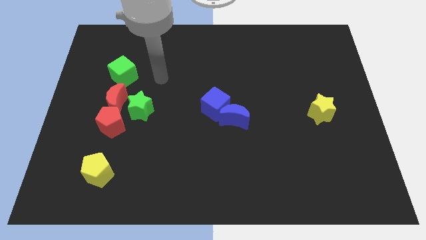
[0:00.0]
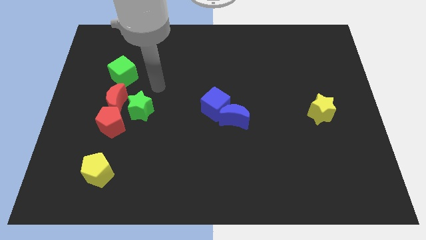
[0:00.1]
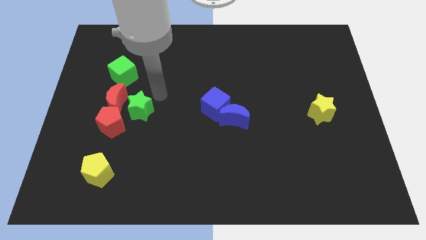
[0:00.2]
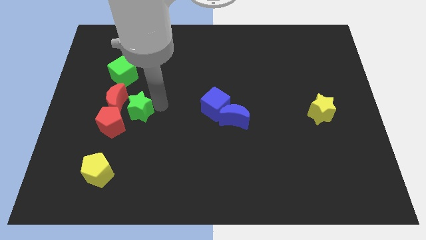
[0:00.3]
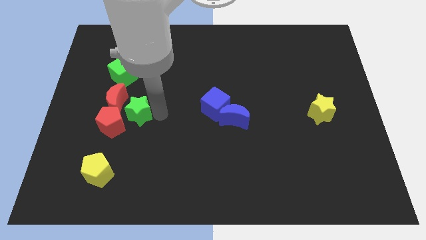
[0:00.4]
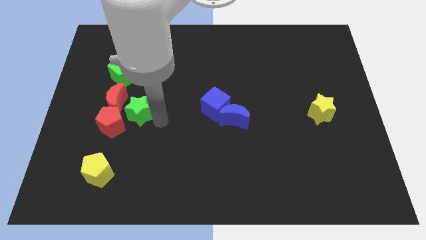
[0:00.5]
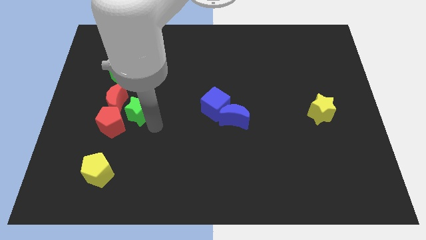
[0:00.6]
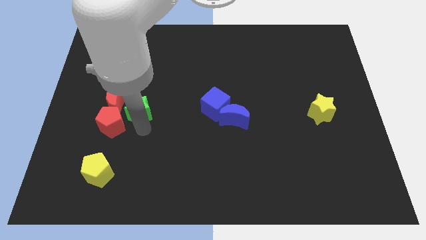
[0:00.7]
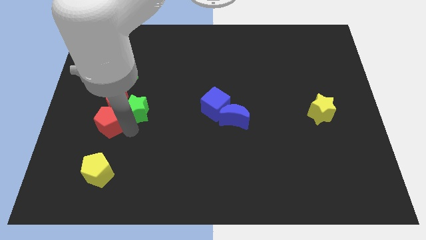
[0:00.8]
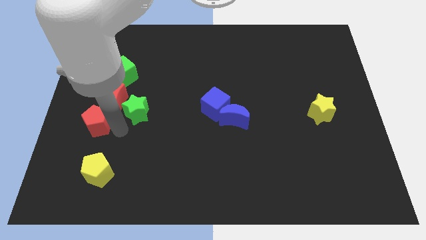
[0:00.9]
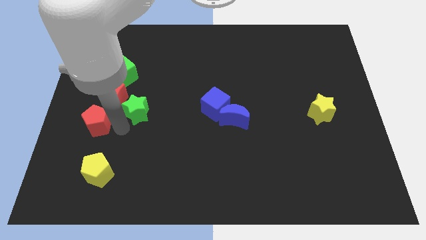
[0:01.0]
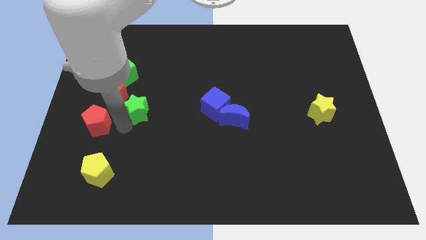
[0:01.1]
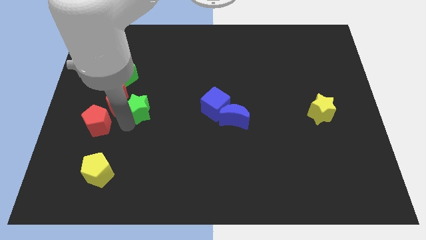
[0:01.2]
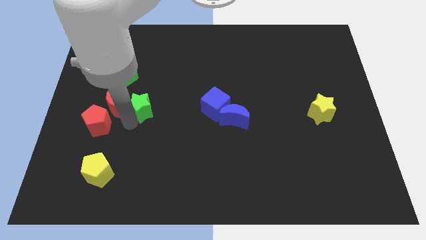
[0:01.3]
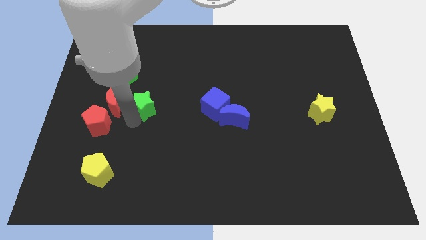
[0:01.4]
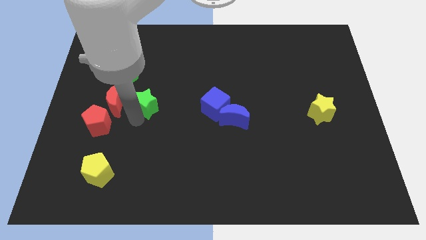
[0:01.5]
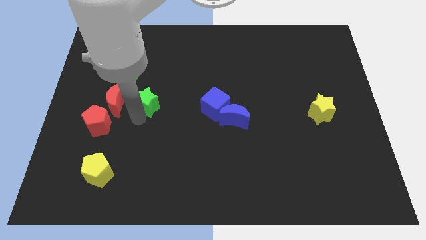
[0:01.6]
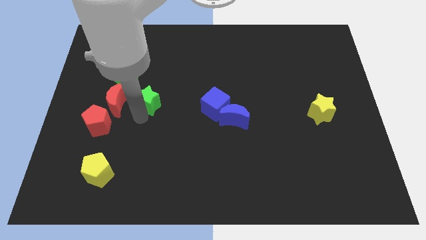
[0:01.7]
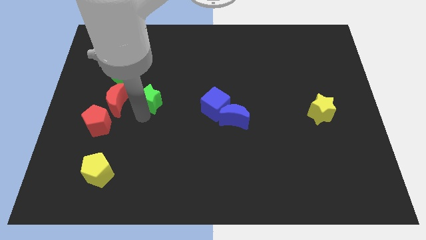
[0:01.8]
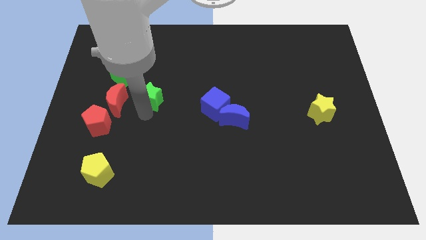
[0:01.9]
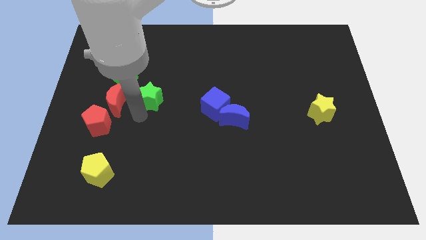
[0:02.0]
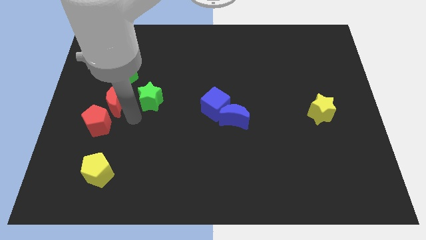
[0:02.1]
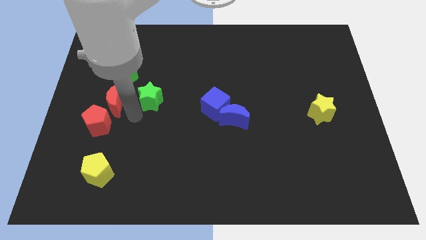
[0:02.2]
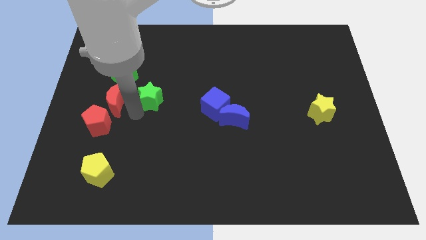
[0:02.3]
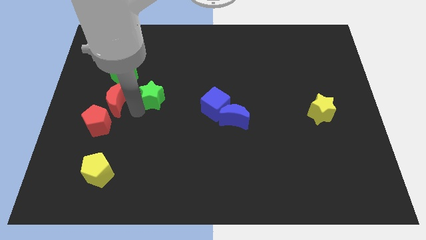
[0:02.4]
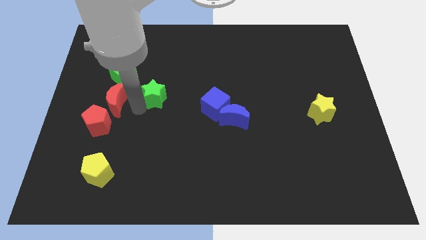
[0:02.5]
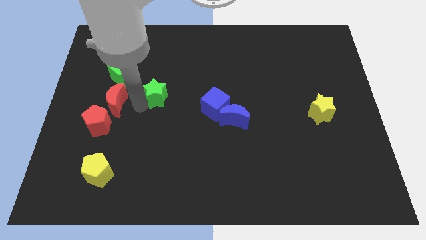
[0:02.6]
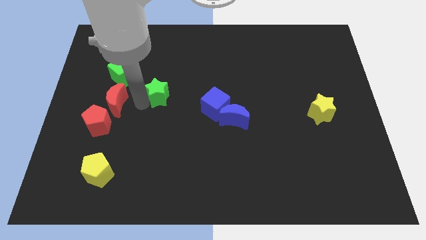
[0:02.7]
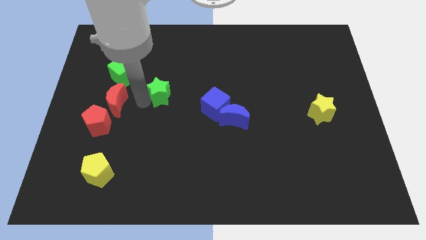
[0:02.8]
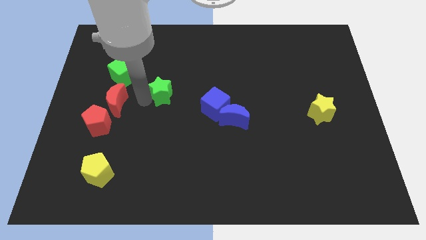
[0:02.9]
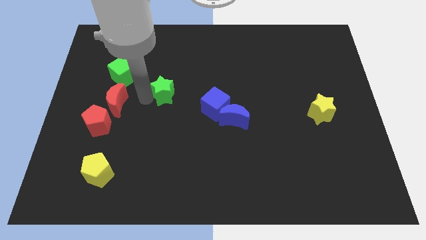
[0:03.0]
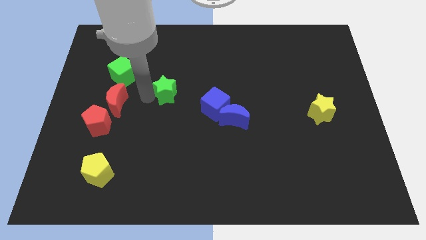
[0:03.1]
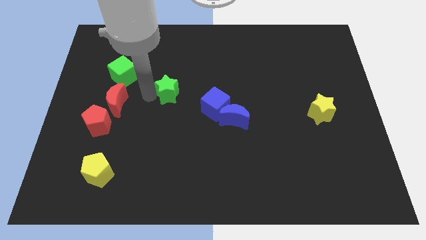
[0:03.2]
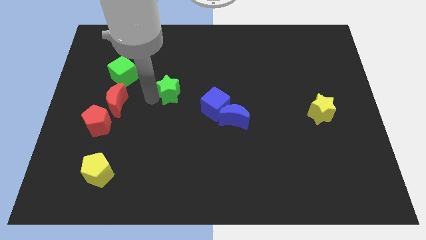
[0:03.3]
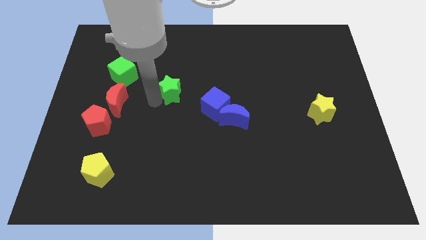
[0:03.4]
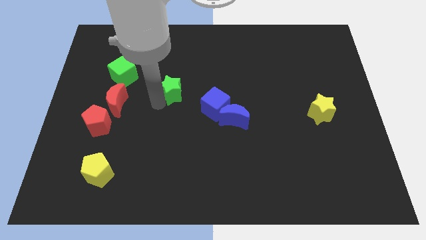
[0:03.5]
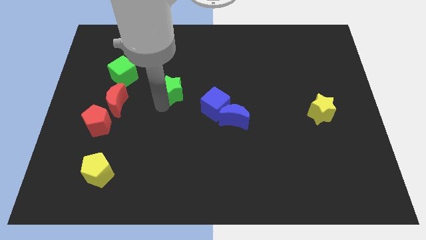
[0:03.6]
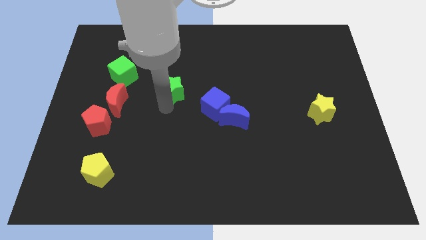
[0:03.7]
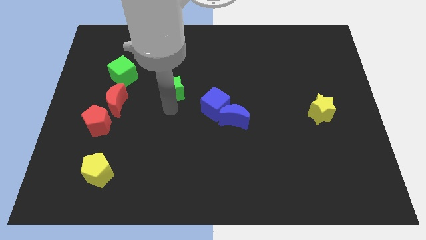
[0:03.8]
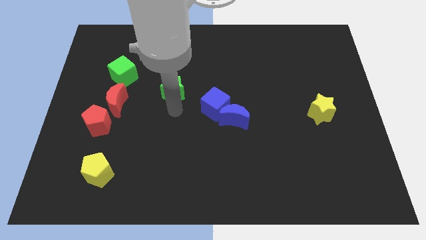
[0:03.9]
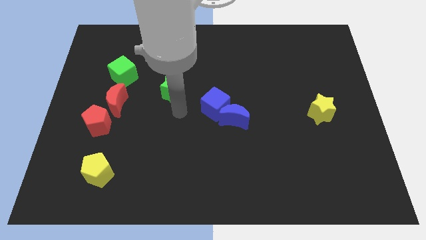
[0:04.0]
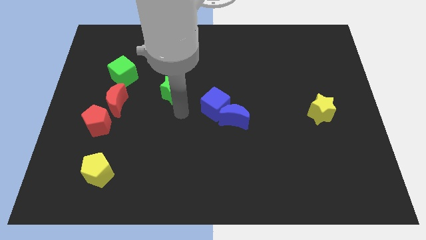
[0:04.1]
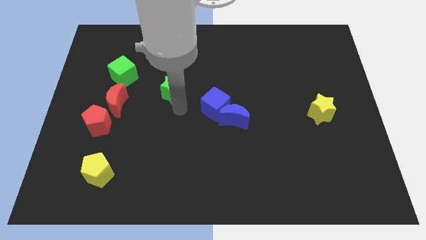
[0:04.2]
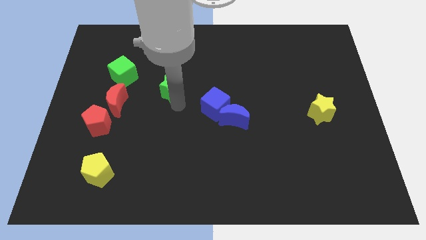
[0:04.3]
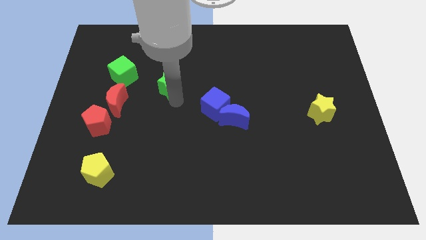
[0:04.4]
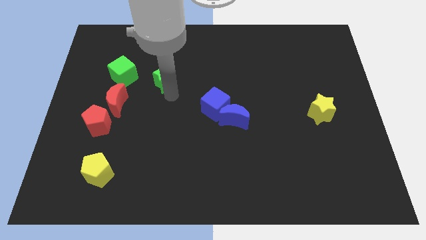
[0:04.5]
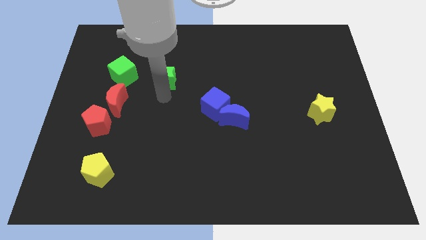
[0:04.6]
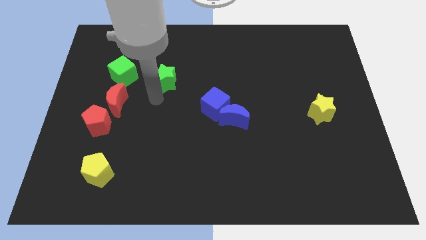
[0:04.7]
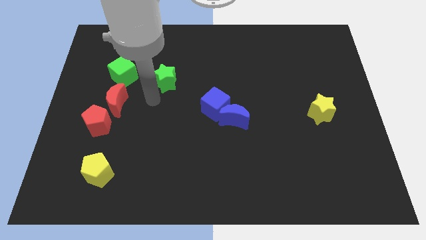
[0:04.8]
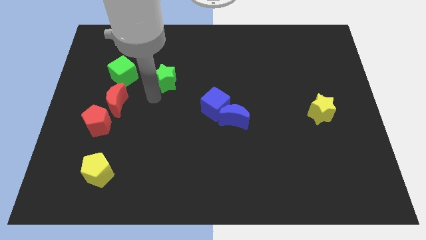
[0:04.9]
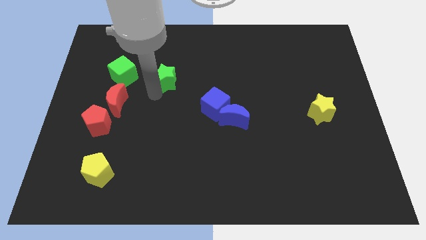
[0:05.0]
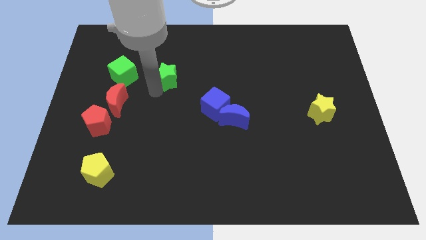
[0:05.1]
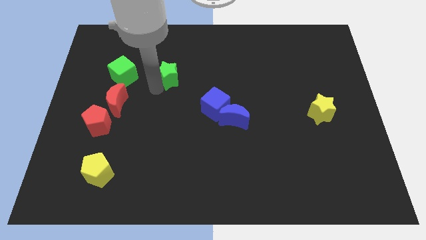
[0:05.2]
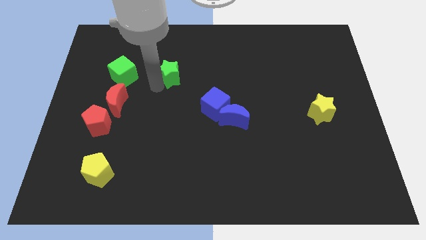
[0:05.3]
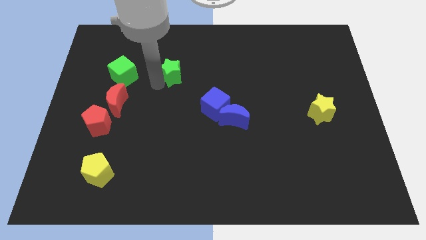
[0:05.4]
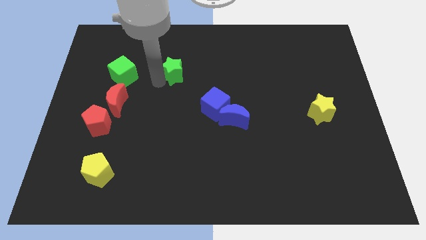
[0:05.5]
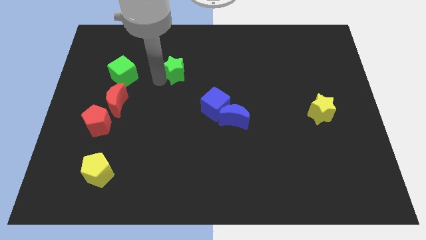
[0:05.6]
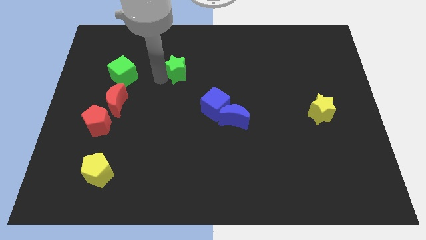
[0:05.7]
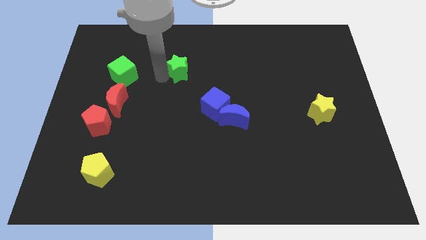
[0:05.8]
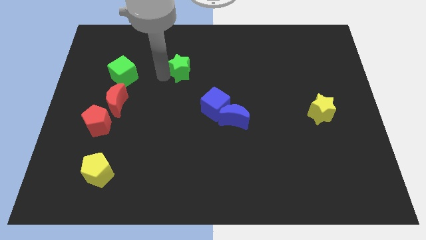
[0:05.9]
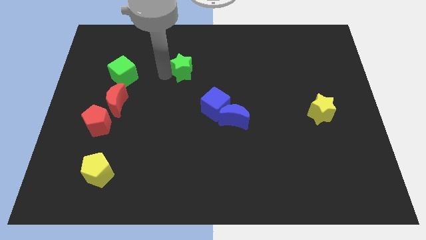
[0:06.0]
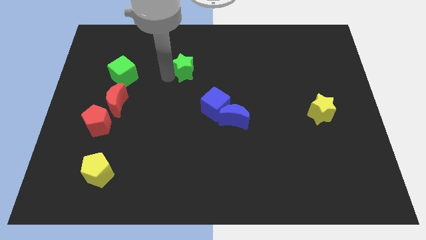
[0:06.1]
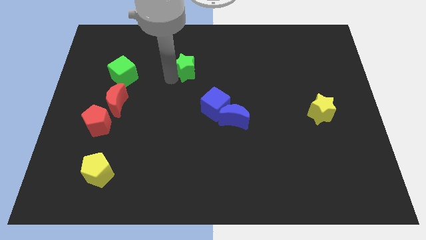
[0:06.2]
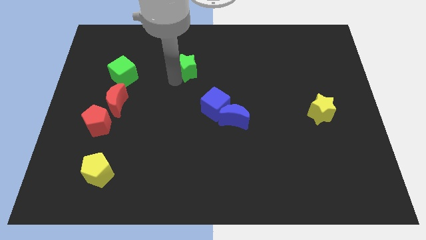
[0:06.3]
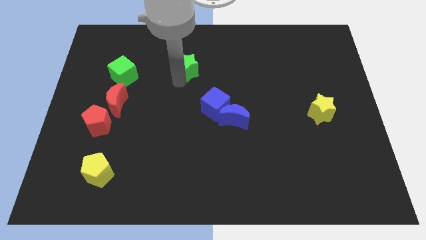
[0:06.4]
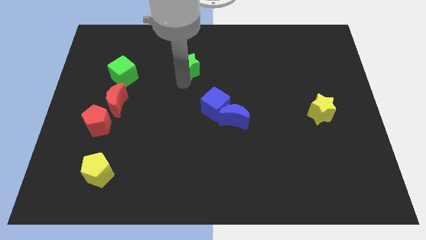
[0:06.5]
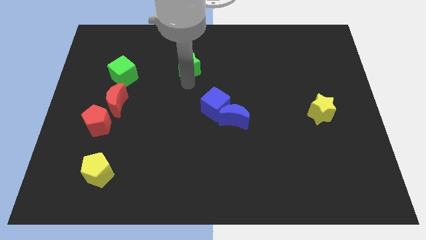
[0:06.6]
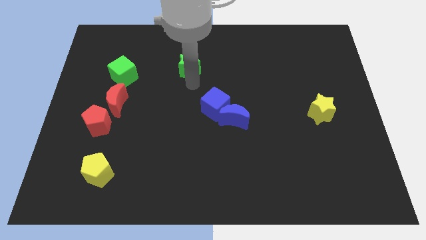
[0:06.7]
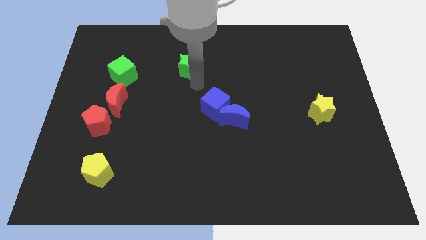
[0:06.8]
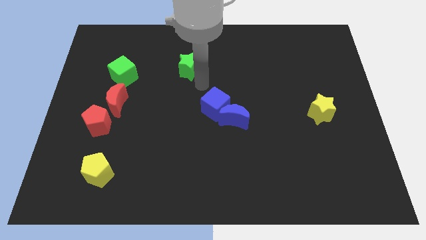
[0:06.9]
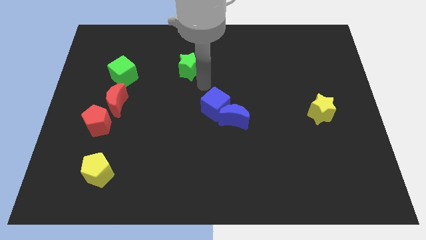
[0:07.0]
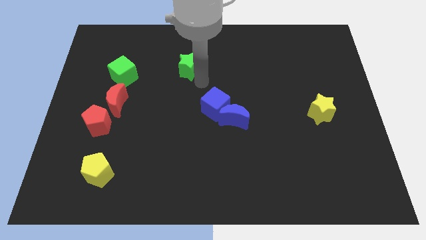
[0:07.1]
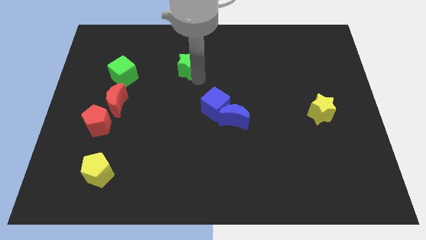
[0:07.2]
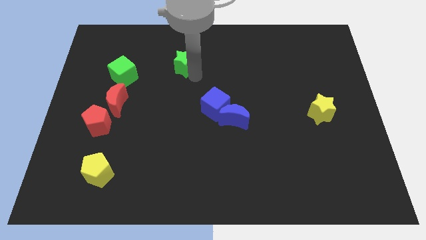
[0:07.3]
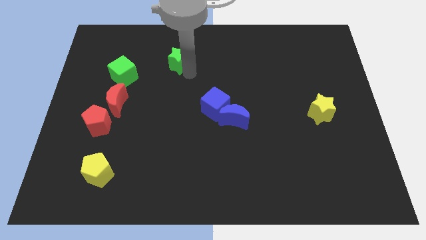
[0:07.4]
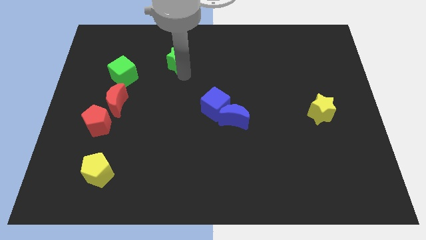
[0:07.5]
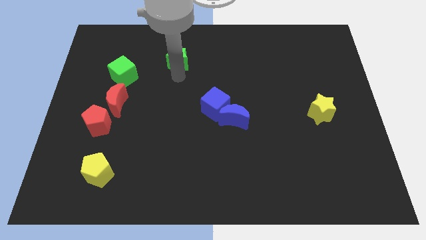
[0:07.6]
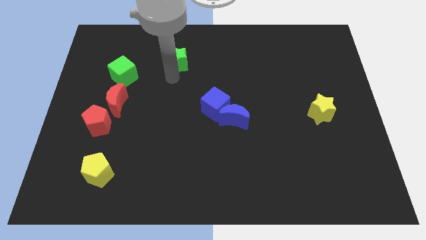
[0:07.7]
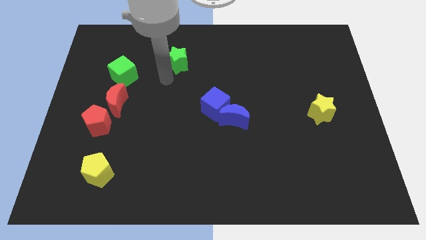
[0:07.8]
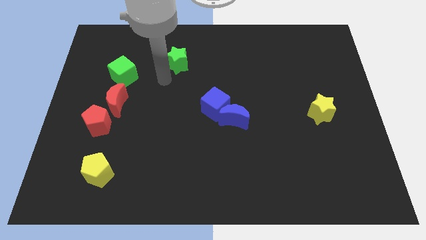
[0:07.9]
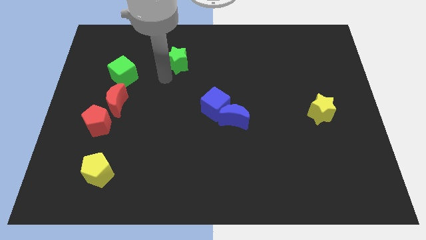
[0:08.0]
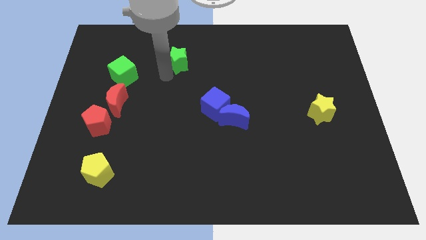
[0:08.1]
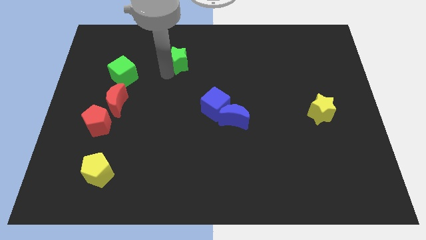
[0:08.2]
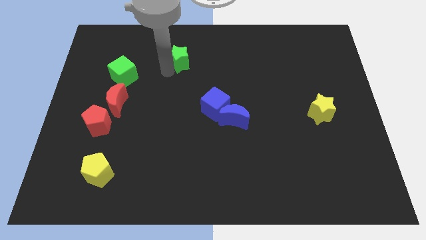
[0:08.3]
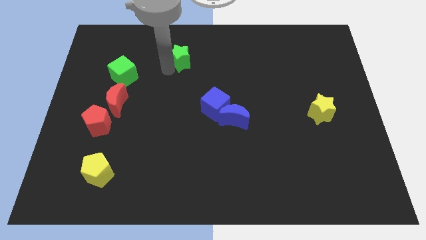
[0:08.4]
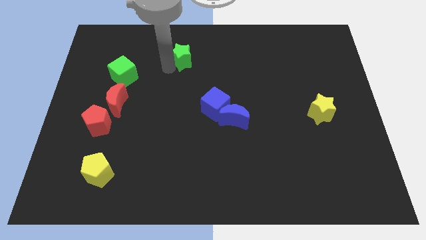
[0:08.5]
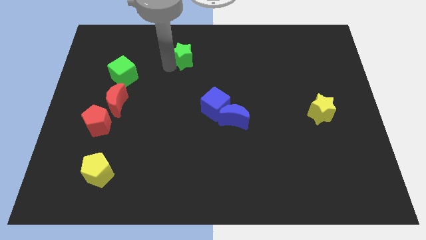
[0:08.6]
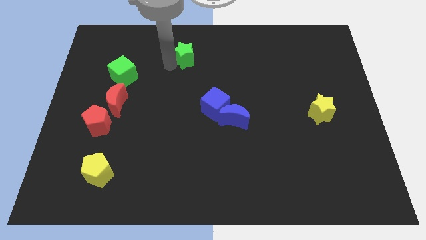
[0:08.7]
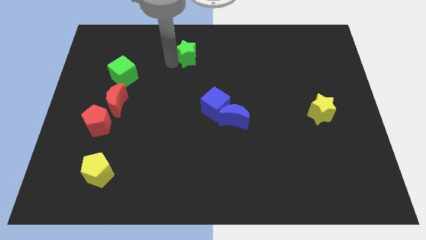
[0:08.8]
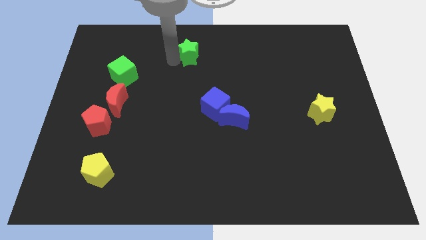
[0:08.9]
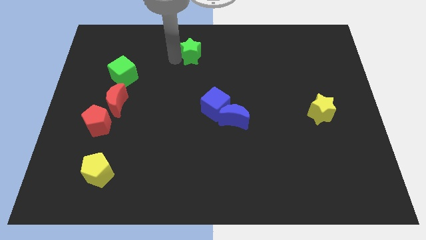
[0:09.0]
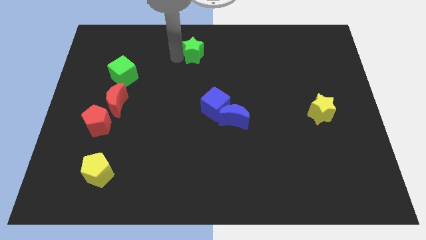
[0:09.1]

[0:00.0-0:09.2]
push the green star to the top side
